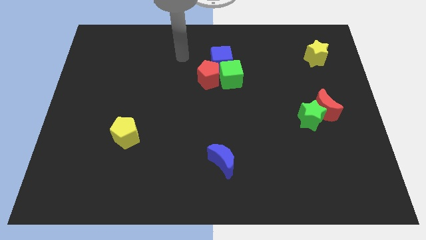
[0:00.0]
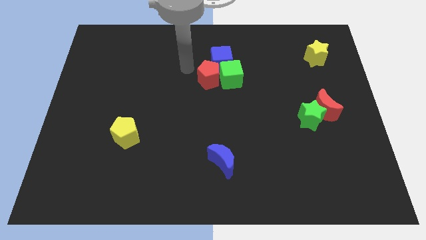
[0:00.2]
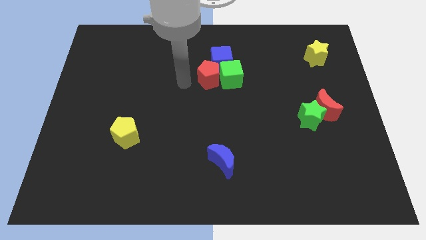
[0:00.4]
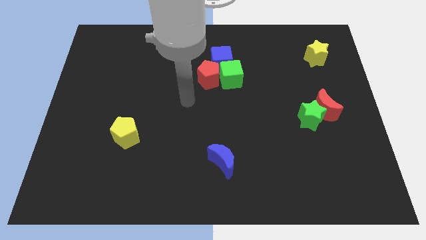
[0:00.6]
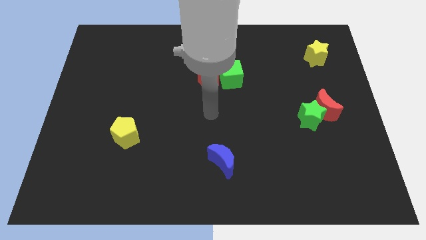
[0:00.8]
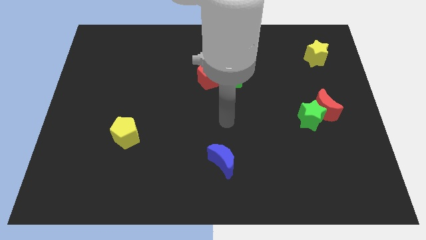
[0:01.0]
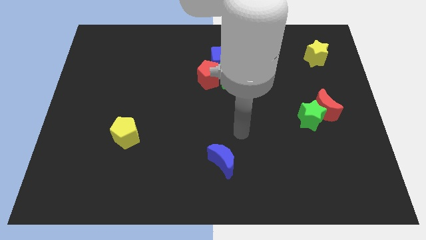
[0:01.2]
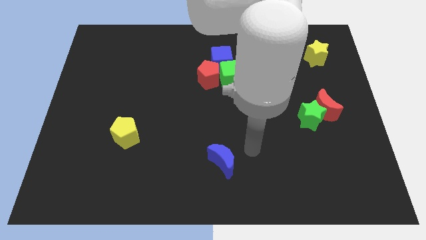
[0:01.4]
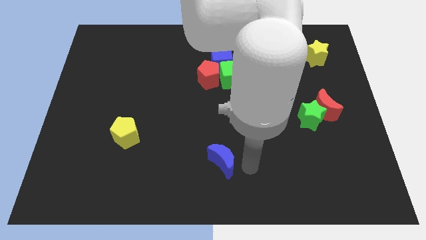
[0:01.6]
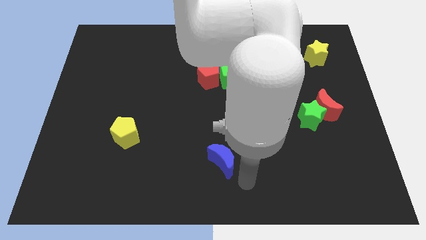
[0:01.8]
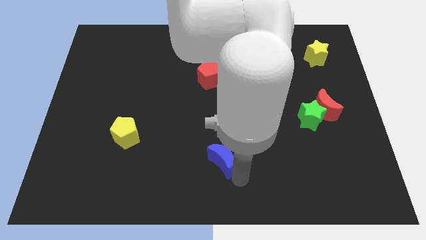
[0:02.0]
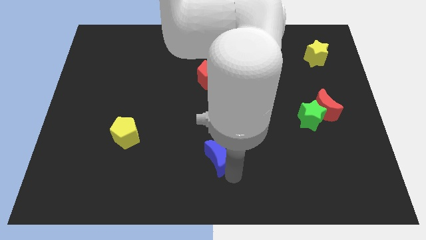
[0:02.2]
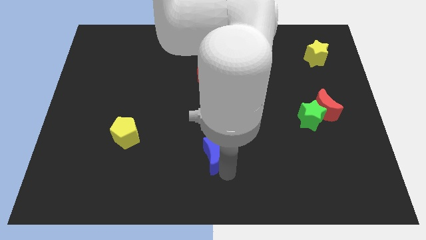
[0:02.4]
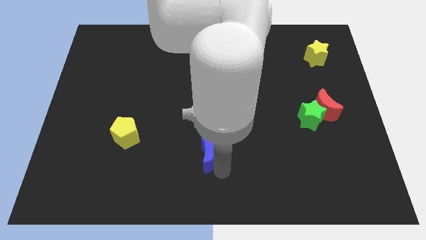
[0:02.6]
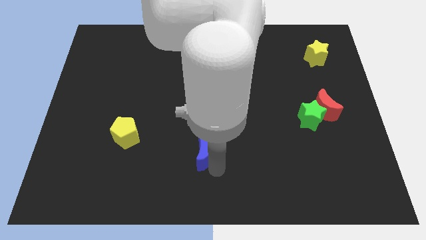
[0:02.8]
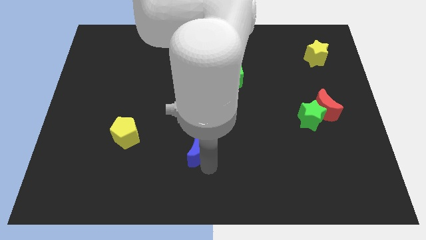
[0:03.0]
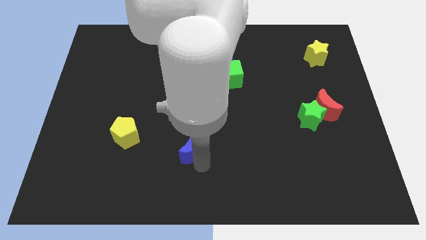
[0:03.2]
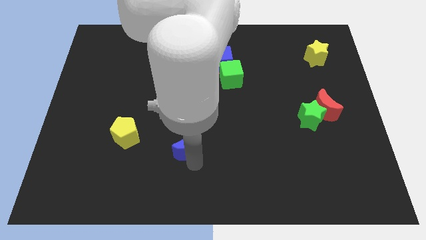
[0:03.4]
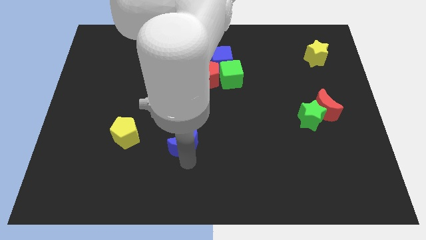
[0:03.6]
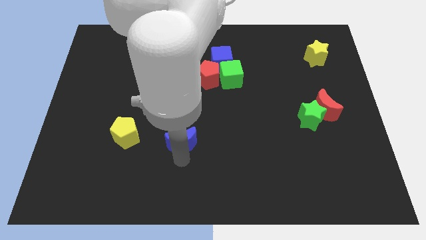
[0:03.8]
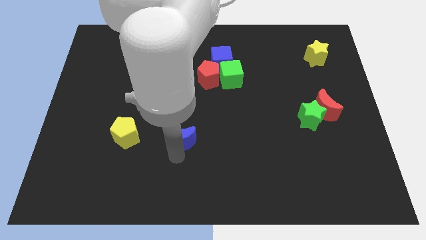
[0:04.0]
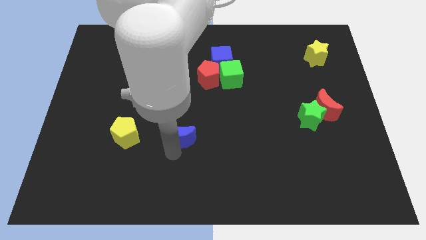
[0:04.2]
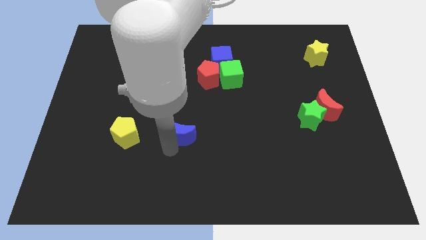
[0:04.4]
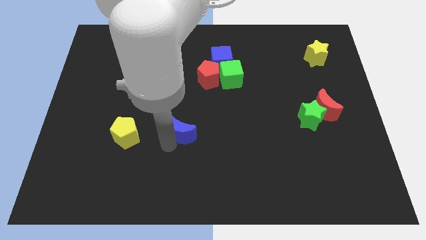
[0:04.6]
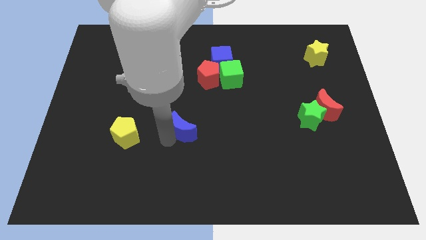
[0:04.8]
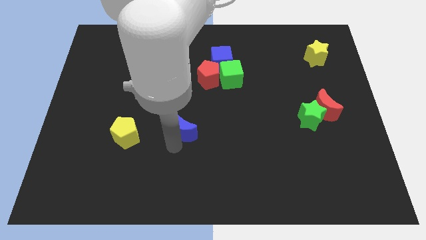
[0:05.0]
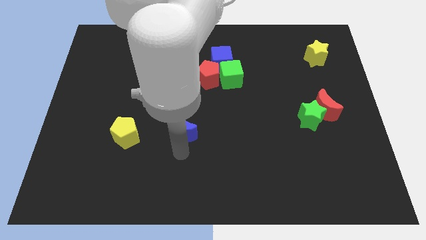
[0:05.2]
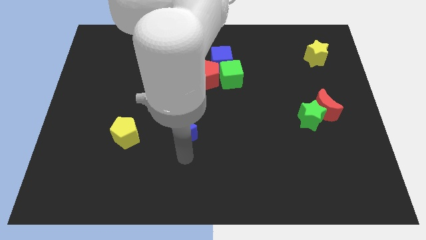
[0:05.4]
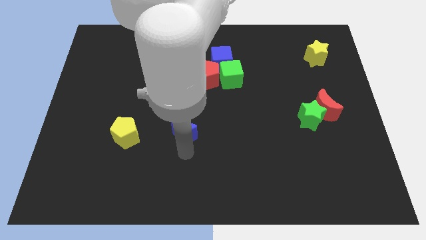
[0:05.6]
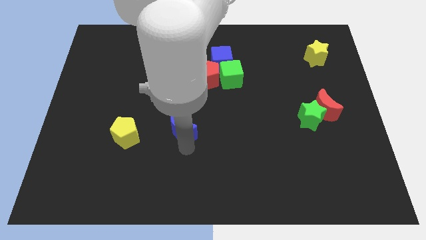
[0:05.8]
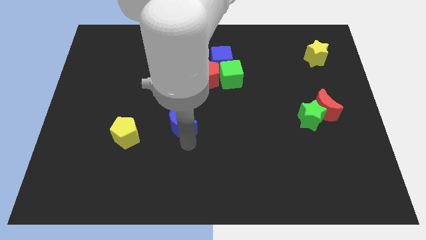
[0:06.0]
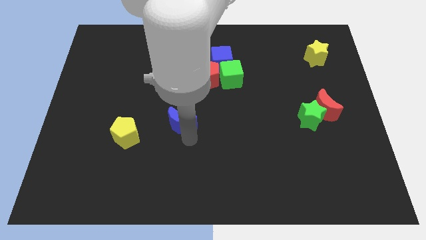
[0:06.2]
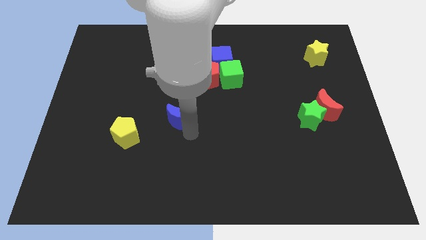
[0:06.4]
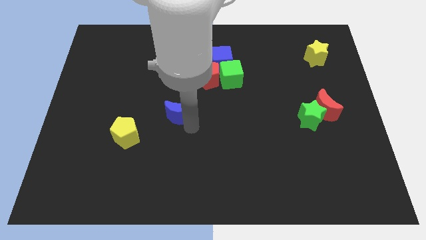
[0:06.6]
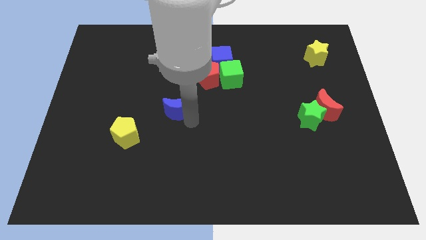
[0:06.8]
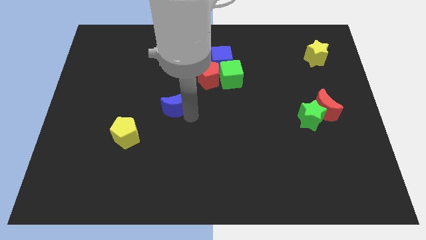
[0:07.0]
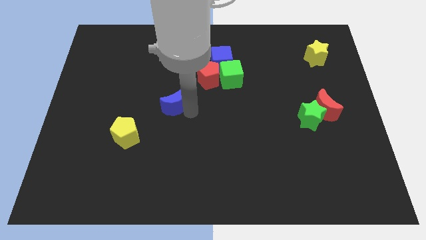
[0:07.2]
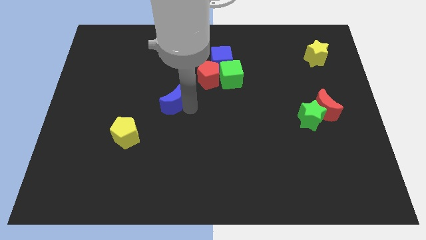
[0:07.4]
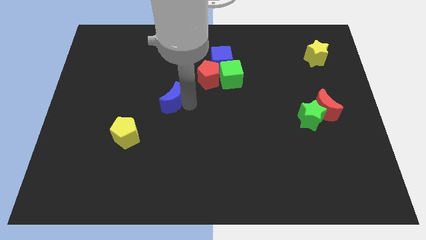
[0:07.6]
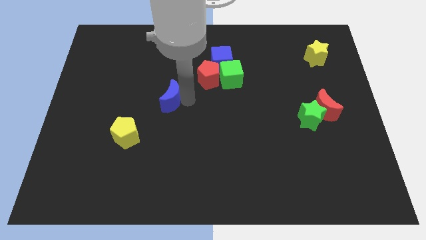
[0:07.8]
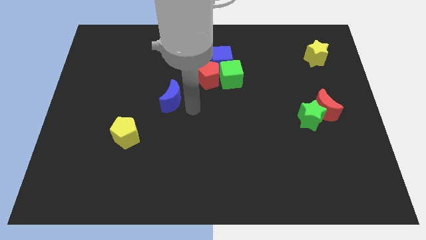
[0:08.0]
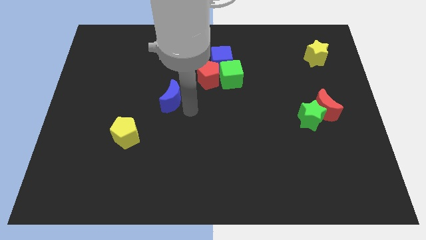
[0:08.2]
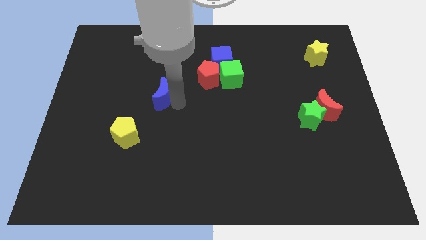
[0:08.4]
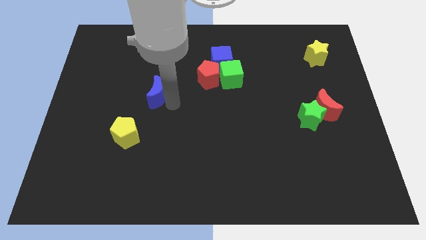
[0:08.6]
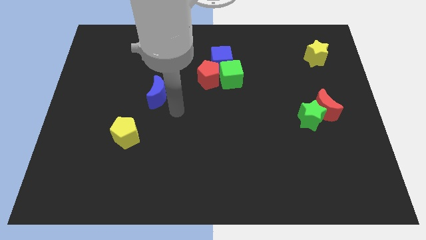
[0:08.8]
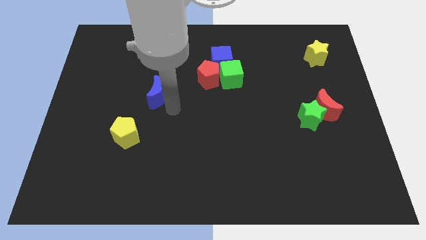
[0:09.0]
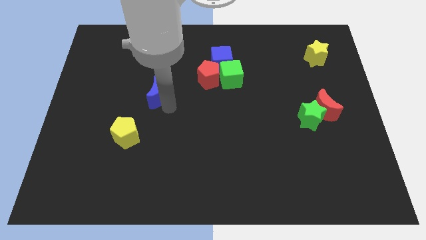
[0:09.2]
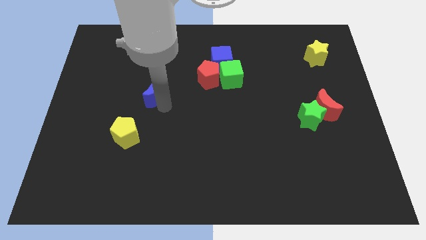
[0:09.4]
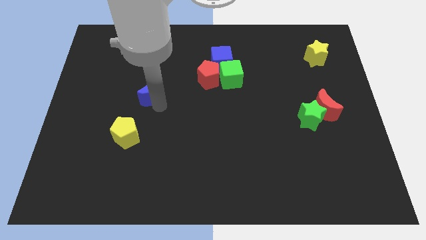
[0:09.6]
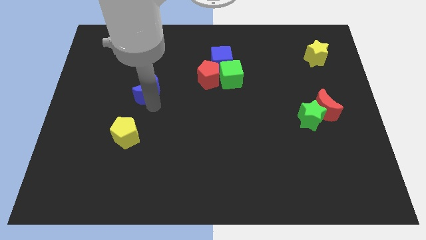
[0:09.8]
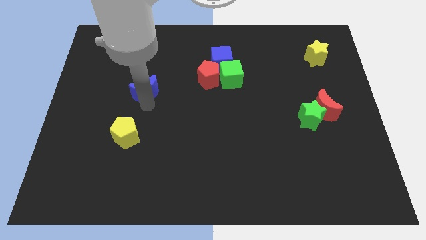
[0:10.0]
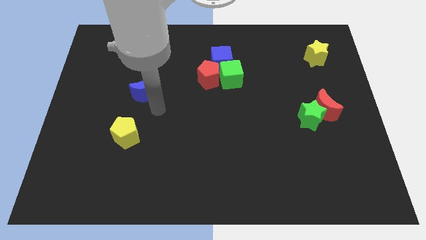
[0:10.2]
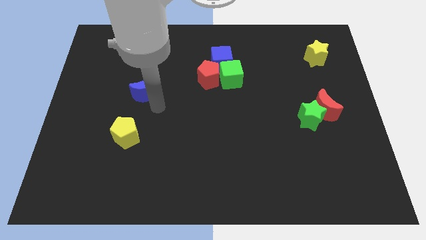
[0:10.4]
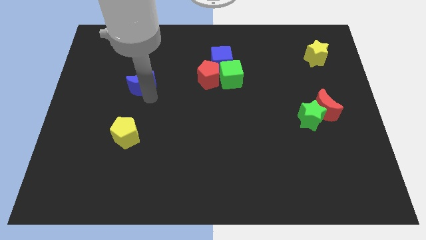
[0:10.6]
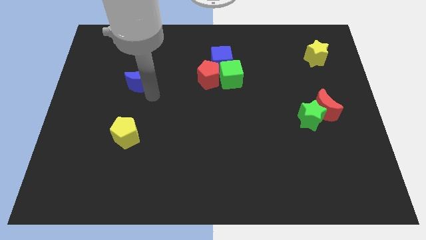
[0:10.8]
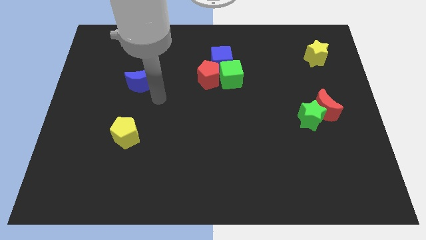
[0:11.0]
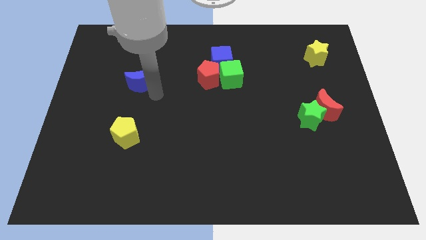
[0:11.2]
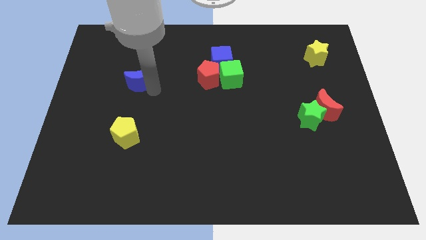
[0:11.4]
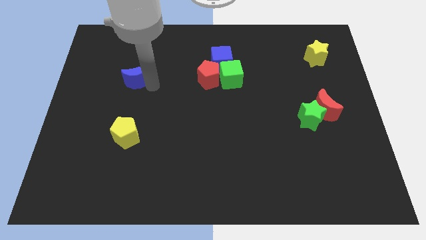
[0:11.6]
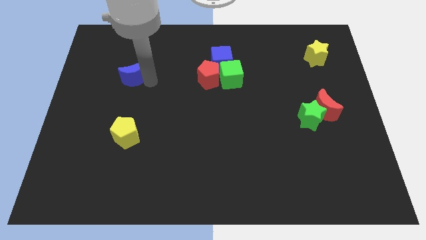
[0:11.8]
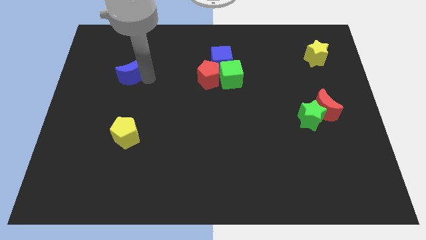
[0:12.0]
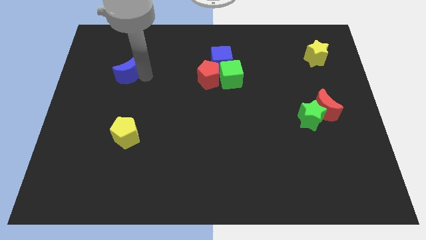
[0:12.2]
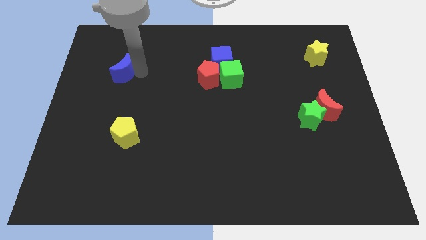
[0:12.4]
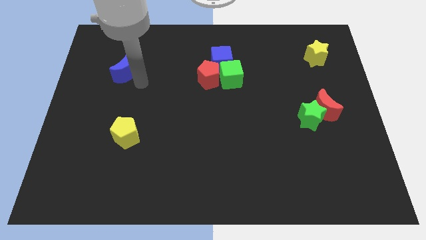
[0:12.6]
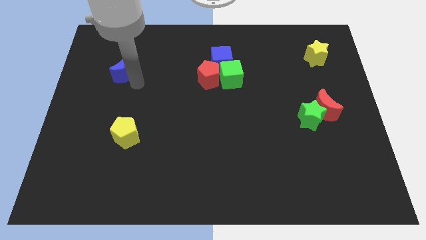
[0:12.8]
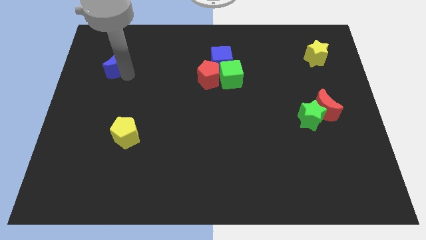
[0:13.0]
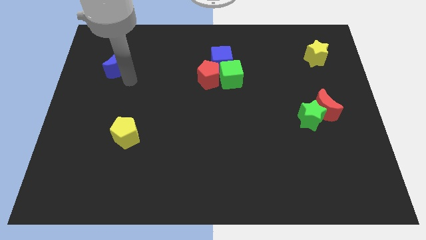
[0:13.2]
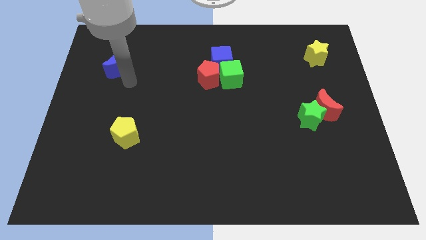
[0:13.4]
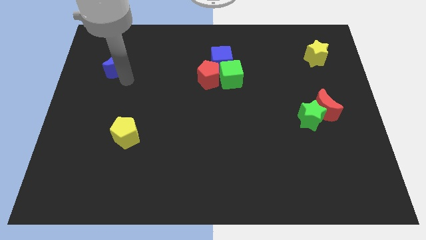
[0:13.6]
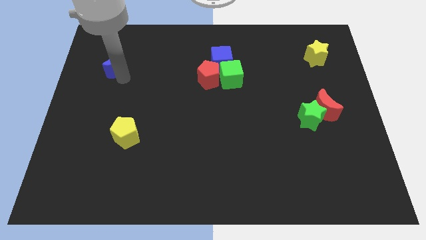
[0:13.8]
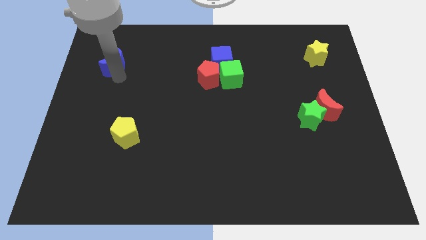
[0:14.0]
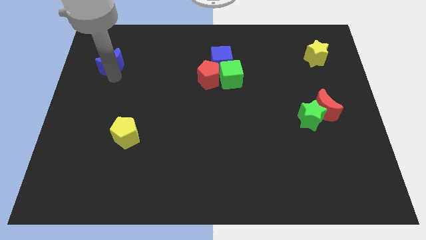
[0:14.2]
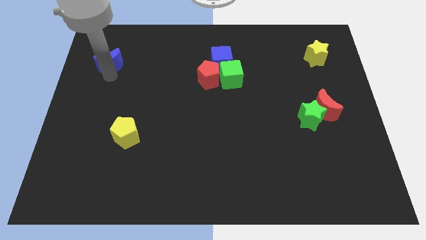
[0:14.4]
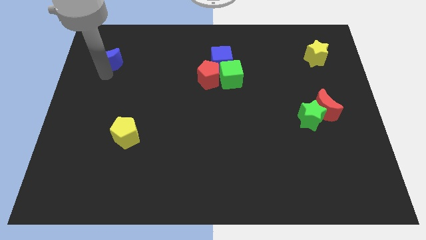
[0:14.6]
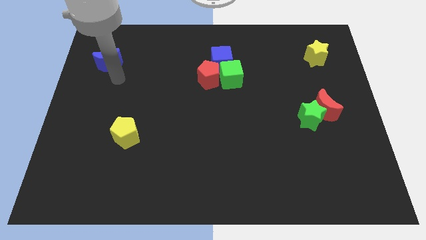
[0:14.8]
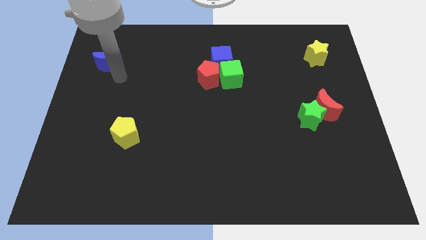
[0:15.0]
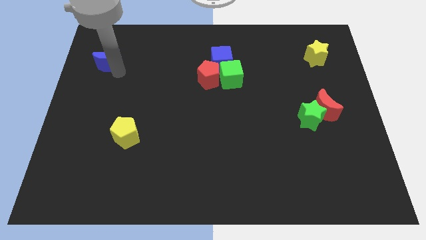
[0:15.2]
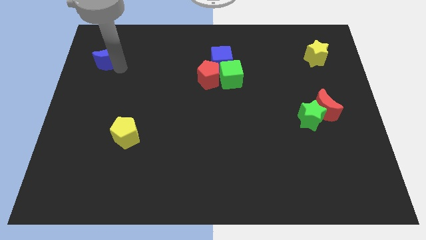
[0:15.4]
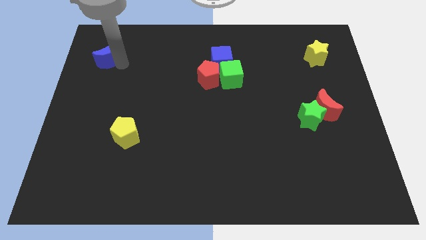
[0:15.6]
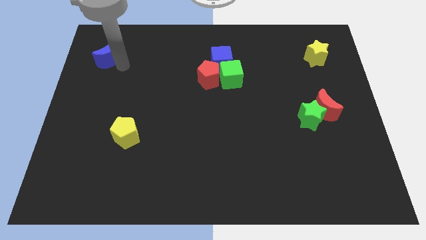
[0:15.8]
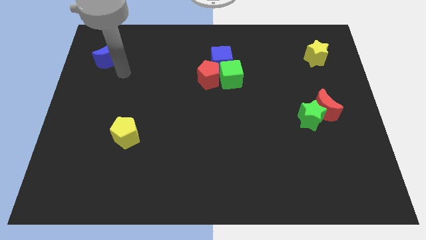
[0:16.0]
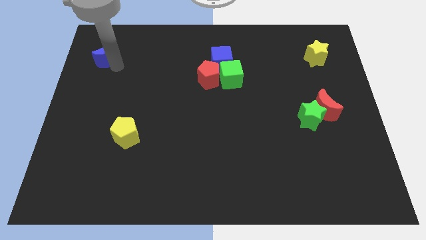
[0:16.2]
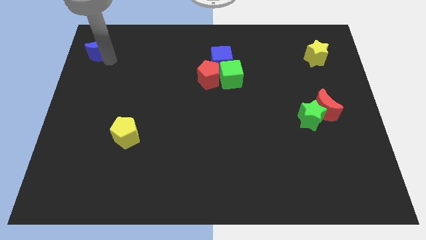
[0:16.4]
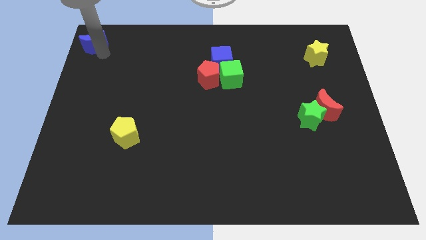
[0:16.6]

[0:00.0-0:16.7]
put the blue moon to the upper left corner
